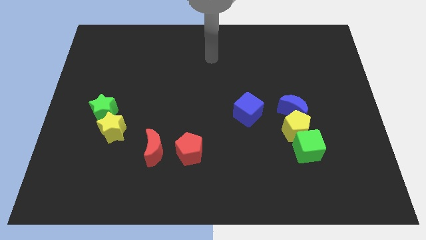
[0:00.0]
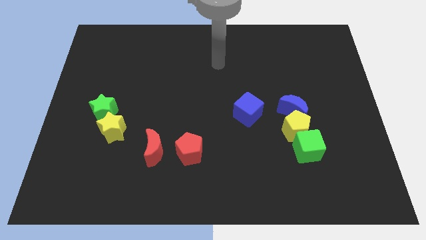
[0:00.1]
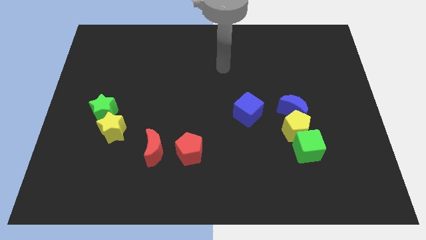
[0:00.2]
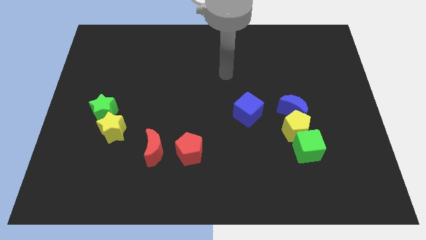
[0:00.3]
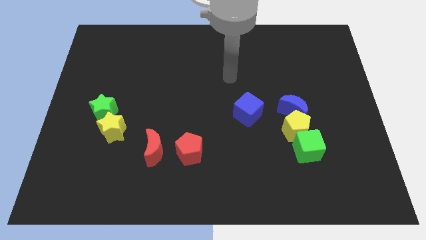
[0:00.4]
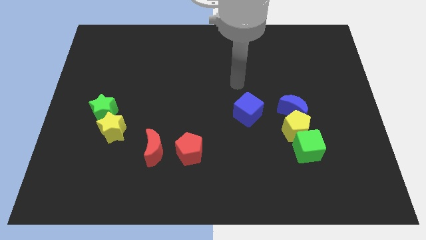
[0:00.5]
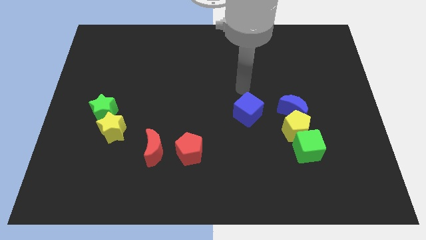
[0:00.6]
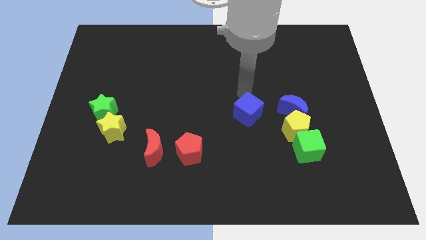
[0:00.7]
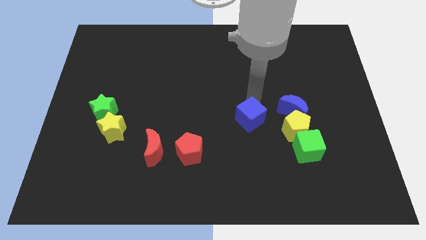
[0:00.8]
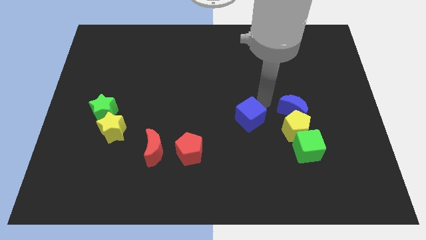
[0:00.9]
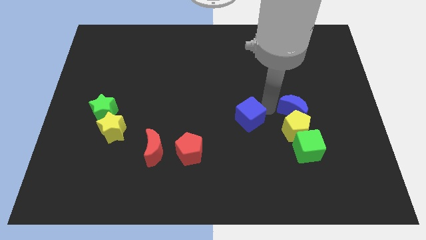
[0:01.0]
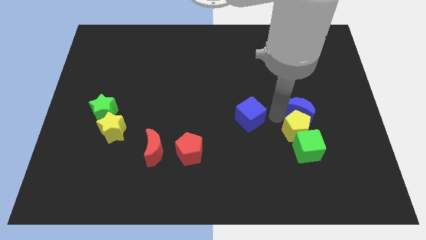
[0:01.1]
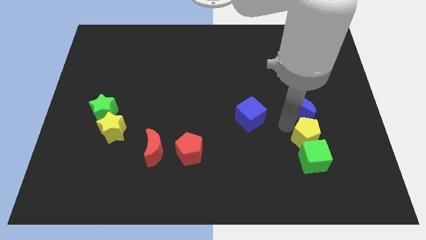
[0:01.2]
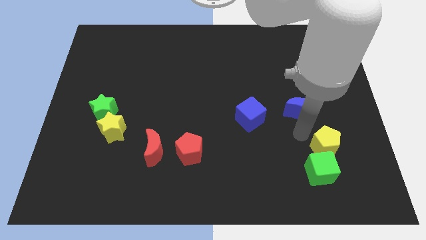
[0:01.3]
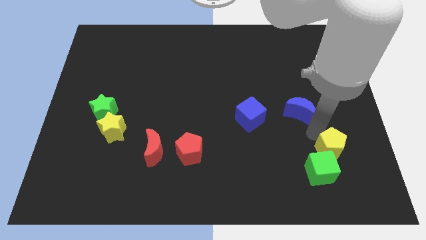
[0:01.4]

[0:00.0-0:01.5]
pull the blue moon apart from the yellow pentagon

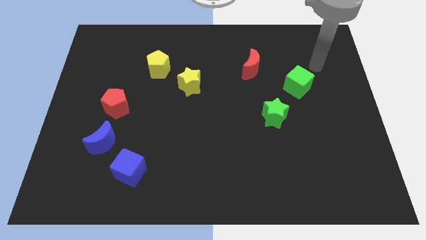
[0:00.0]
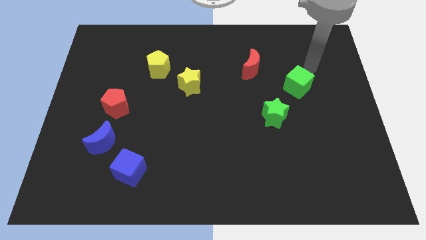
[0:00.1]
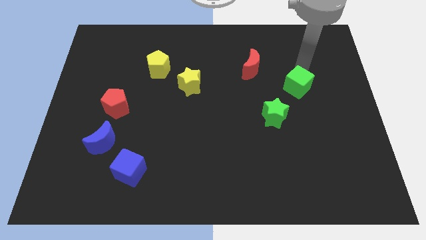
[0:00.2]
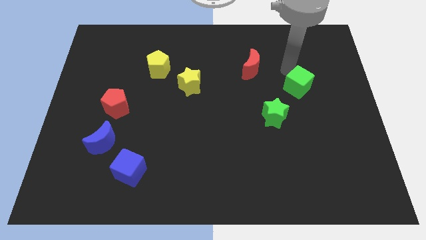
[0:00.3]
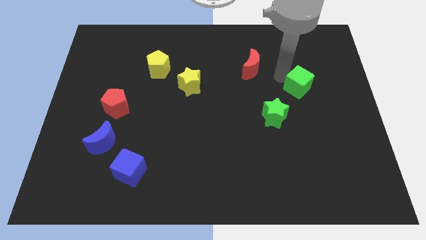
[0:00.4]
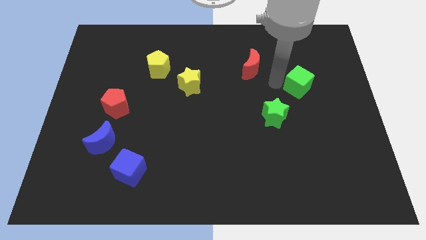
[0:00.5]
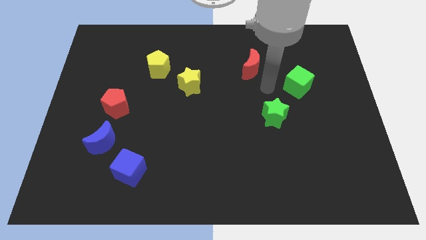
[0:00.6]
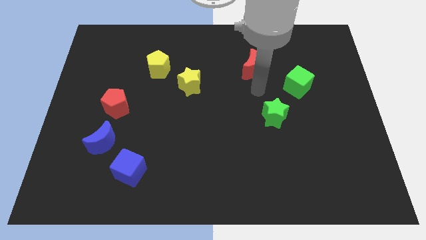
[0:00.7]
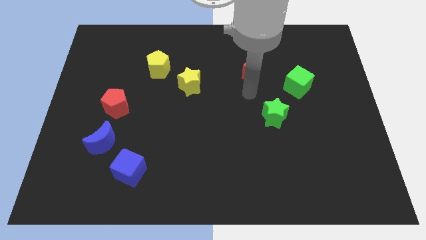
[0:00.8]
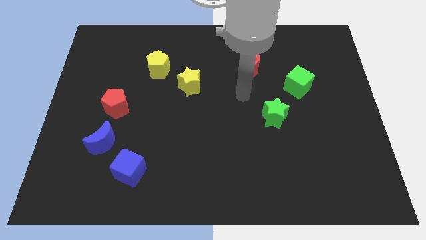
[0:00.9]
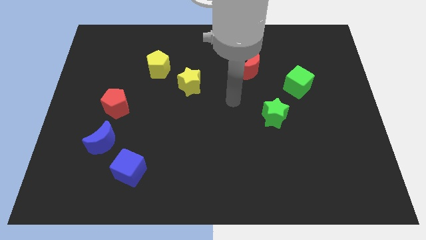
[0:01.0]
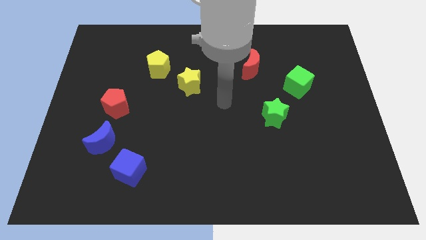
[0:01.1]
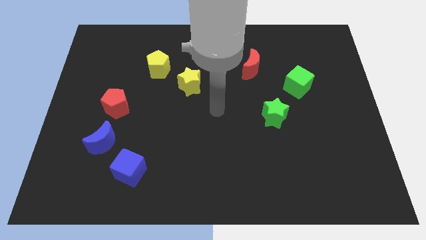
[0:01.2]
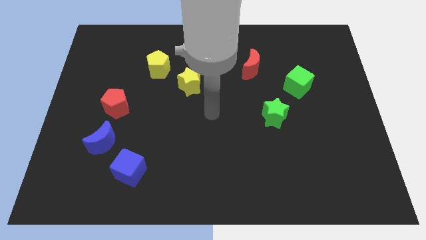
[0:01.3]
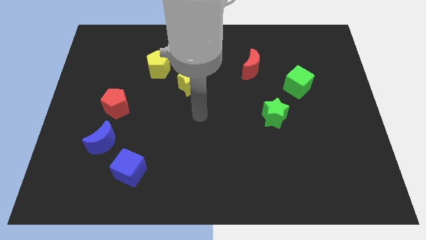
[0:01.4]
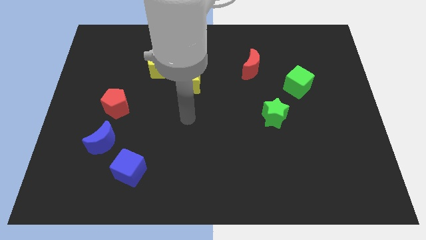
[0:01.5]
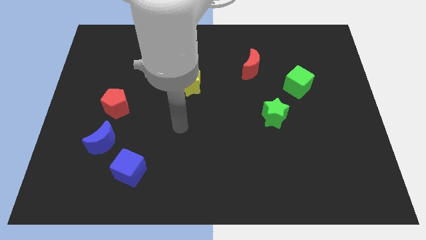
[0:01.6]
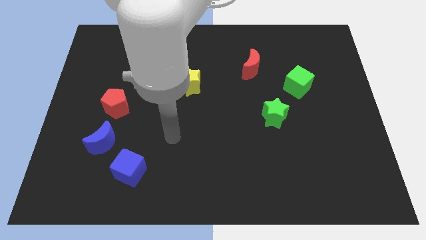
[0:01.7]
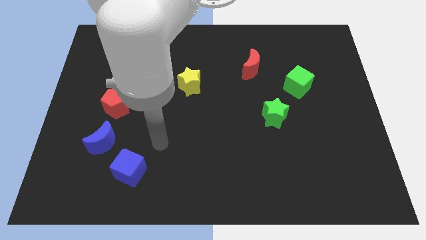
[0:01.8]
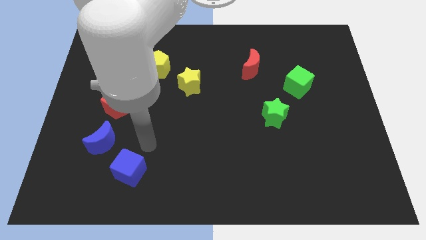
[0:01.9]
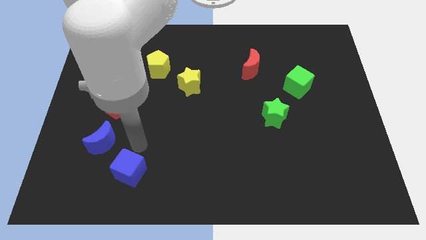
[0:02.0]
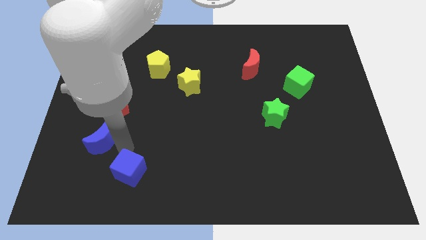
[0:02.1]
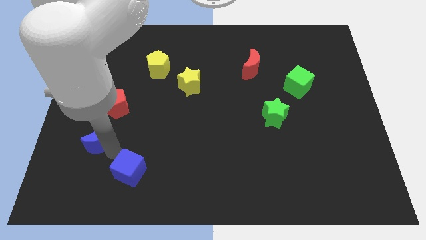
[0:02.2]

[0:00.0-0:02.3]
move the blue cube away from the blue moon

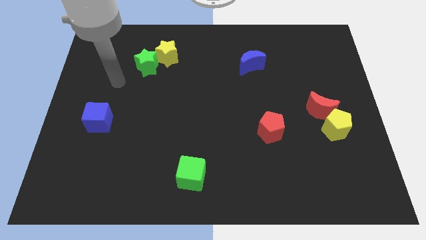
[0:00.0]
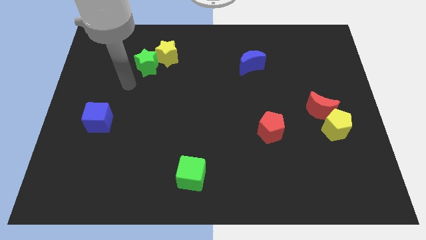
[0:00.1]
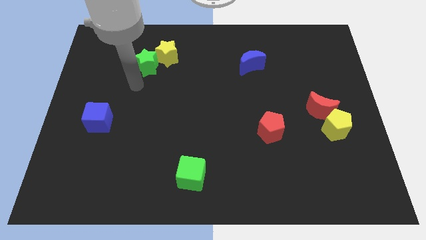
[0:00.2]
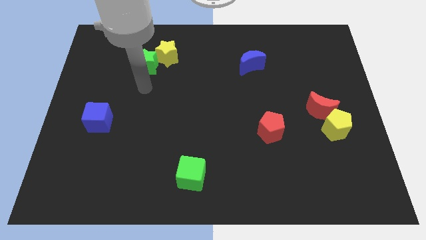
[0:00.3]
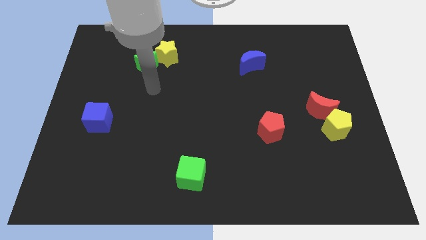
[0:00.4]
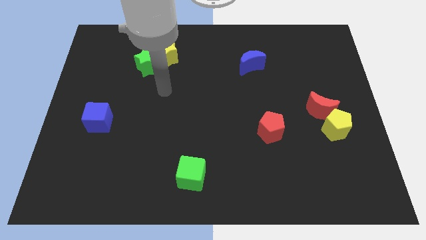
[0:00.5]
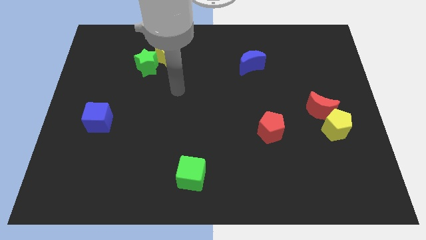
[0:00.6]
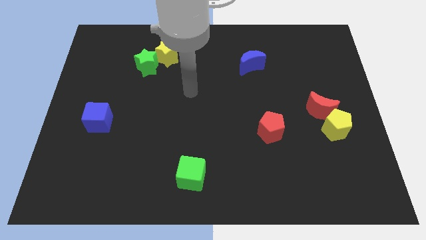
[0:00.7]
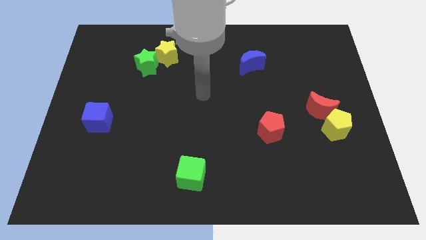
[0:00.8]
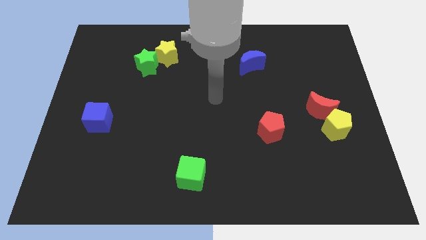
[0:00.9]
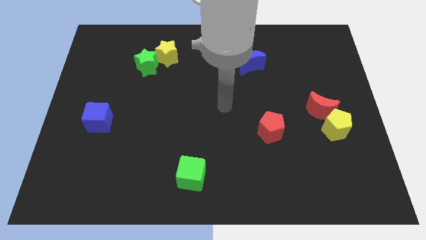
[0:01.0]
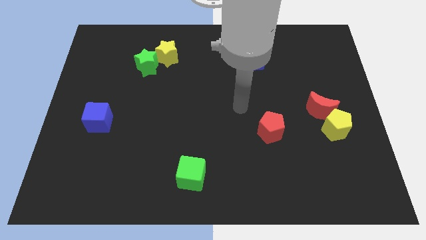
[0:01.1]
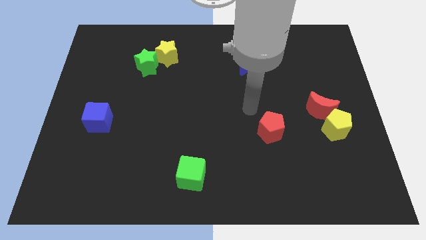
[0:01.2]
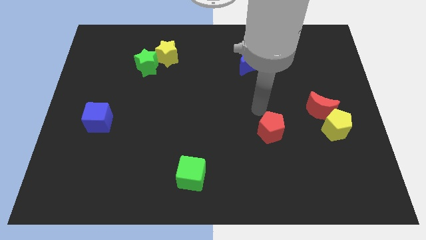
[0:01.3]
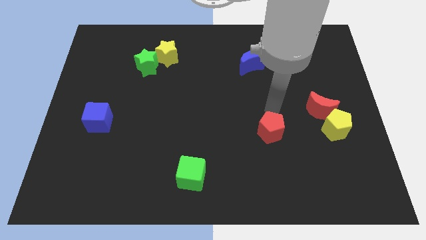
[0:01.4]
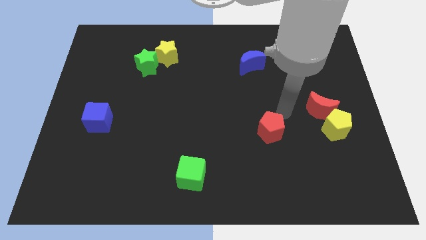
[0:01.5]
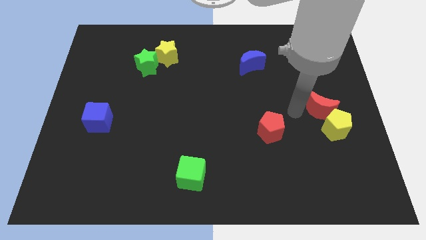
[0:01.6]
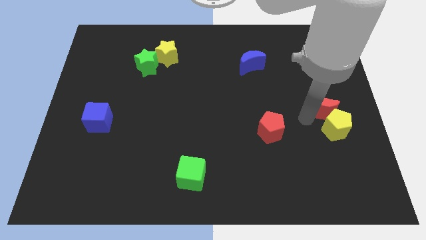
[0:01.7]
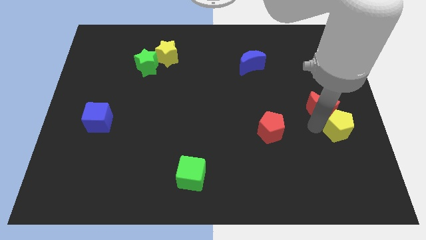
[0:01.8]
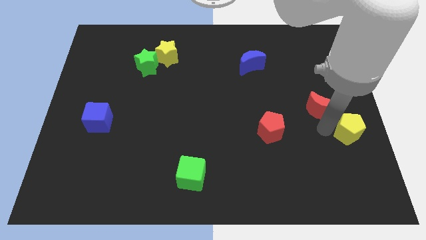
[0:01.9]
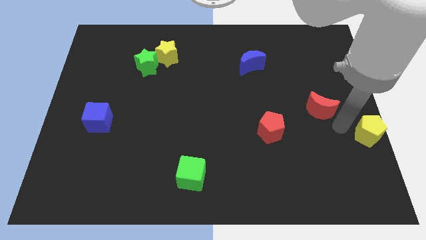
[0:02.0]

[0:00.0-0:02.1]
move the red moon away from the yellow pentagon

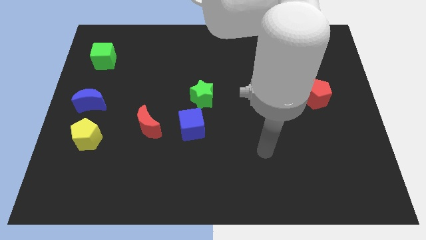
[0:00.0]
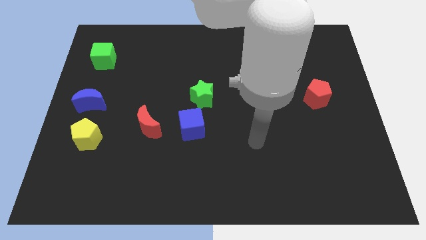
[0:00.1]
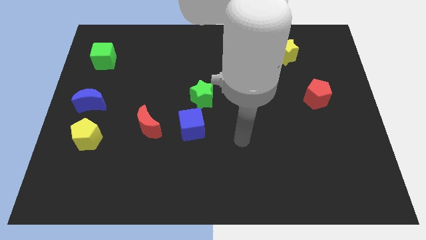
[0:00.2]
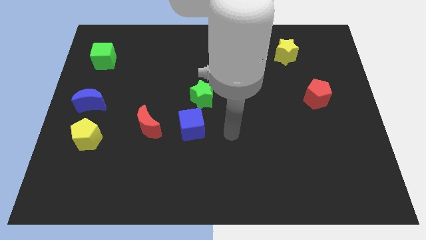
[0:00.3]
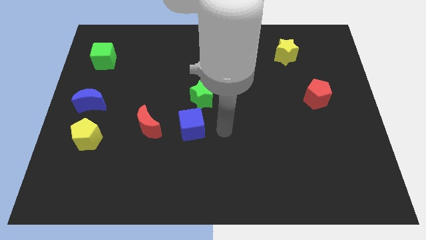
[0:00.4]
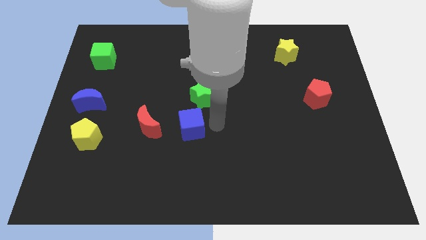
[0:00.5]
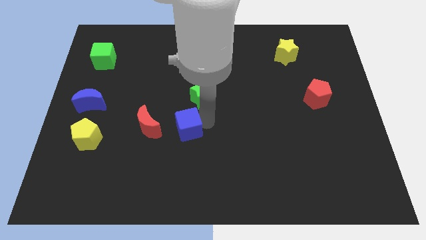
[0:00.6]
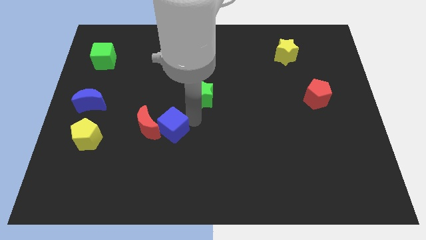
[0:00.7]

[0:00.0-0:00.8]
separate the green star from the blue cube

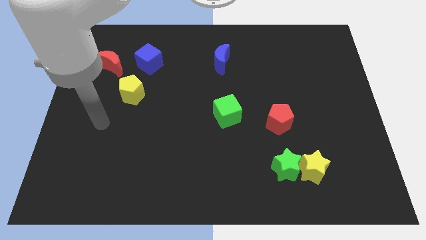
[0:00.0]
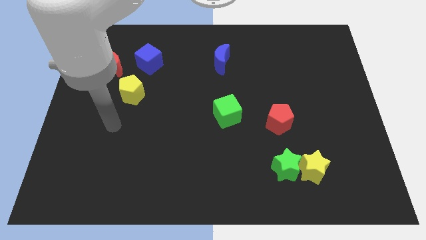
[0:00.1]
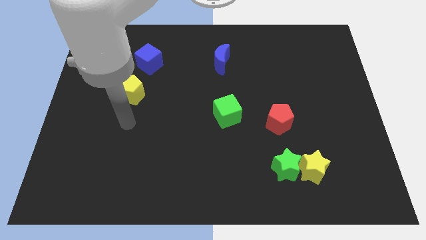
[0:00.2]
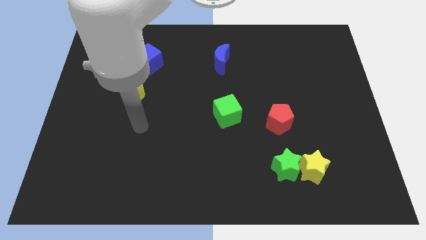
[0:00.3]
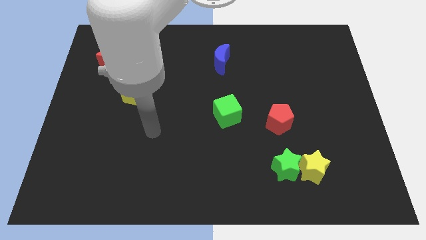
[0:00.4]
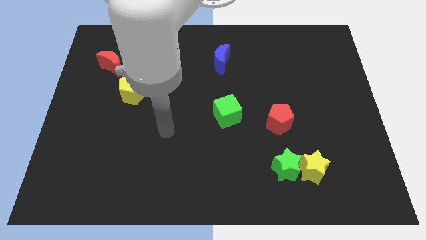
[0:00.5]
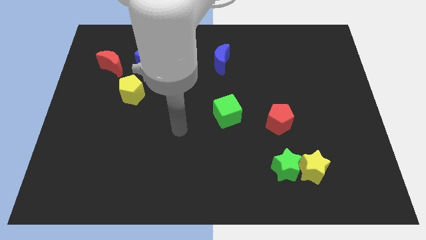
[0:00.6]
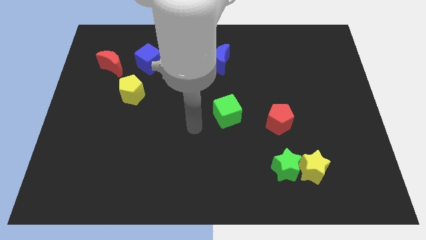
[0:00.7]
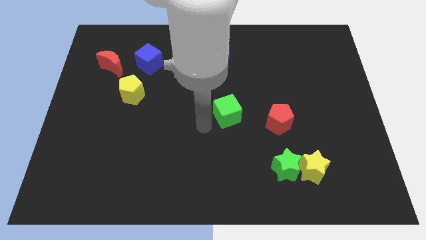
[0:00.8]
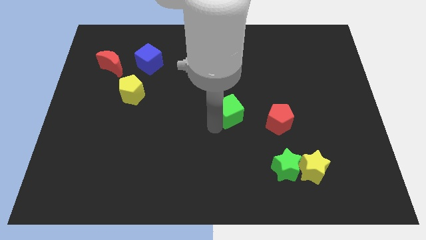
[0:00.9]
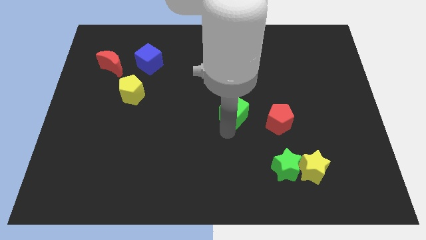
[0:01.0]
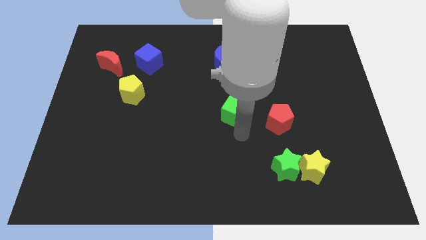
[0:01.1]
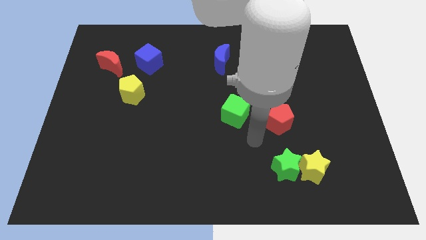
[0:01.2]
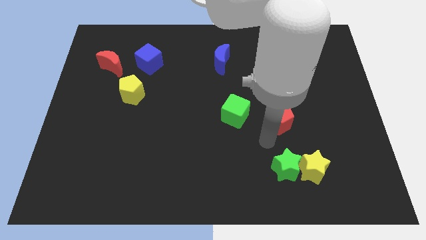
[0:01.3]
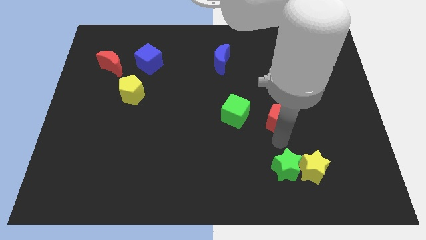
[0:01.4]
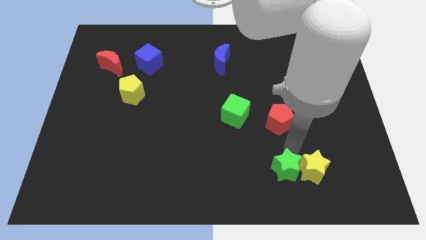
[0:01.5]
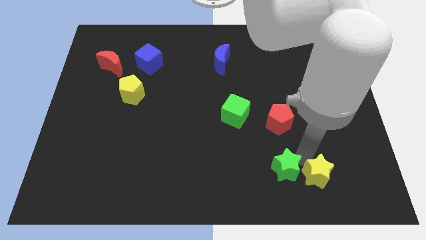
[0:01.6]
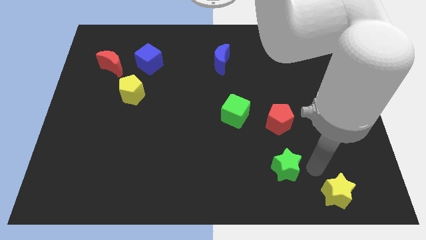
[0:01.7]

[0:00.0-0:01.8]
separate the green star from the yellow star

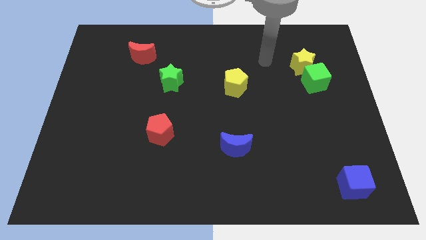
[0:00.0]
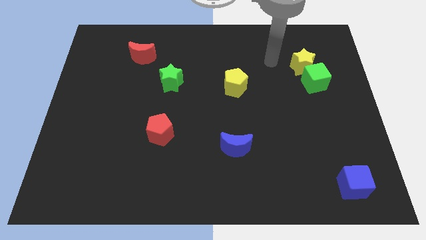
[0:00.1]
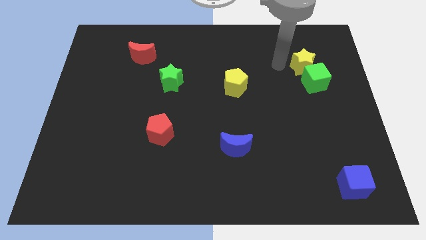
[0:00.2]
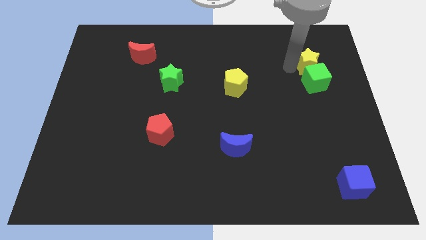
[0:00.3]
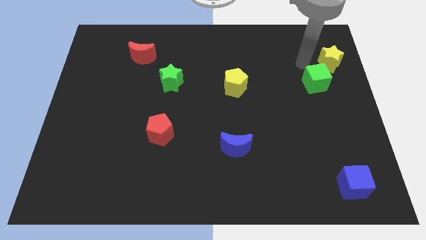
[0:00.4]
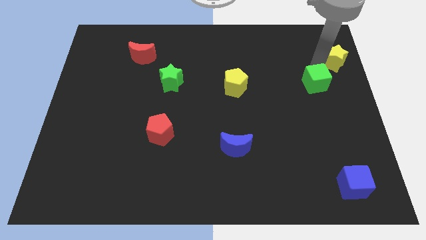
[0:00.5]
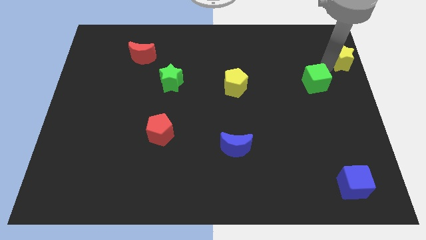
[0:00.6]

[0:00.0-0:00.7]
pull the green cube apart from the yellow star

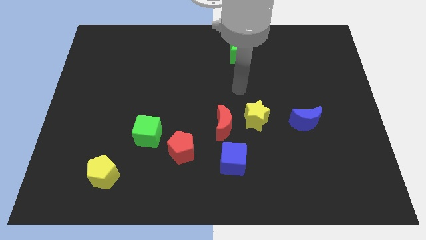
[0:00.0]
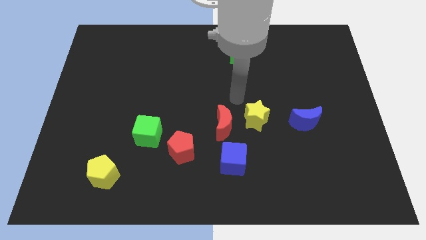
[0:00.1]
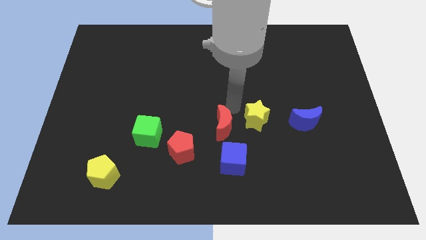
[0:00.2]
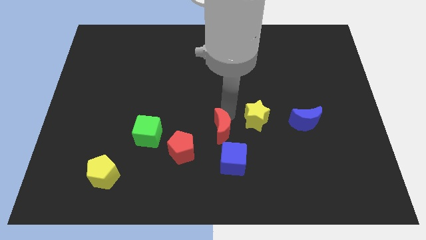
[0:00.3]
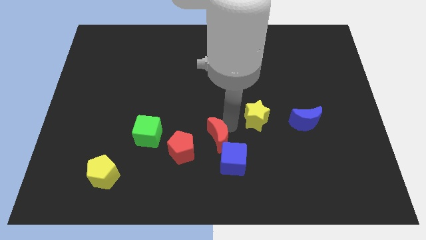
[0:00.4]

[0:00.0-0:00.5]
move the yellow star away from the red moon
